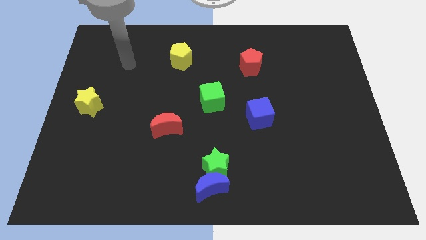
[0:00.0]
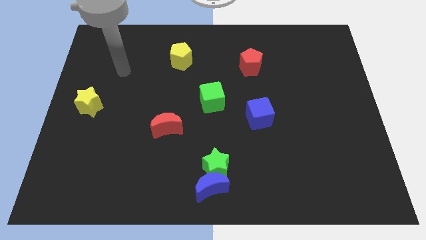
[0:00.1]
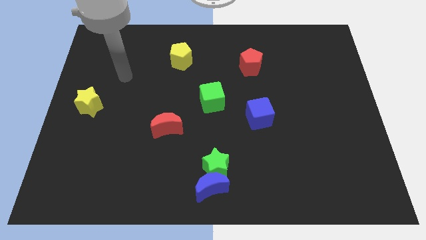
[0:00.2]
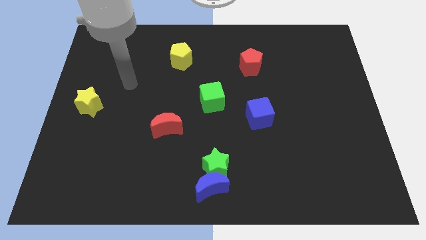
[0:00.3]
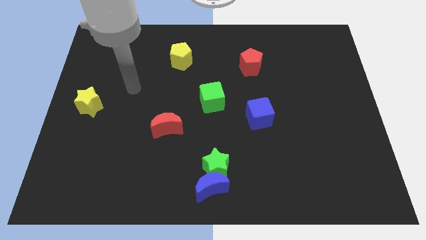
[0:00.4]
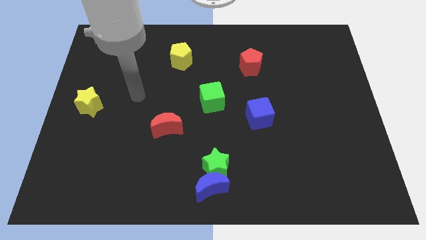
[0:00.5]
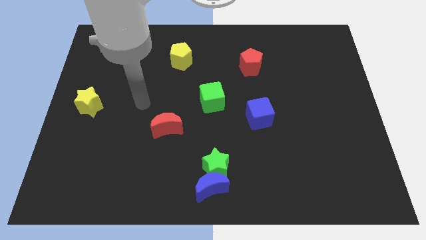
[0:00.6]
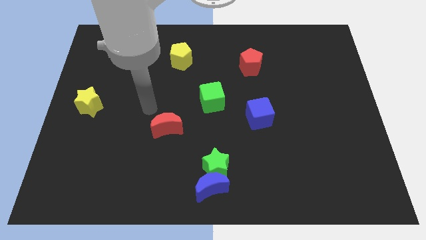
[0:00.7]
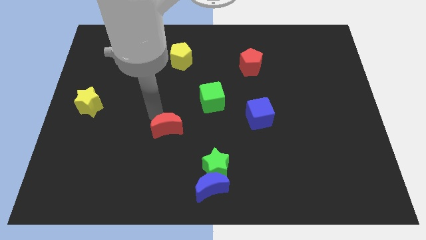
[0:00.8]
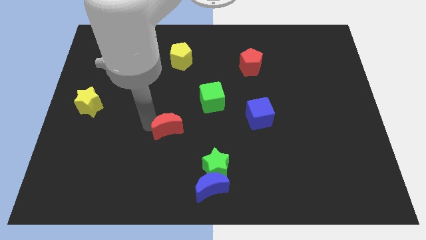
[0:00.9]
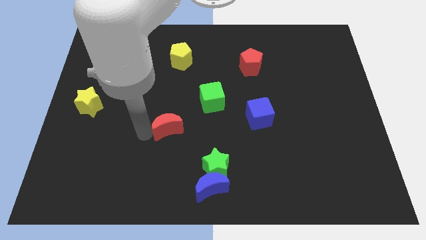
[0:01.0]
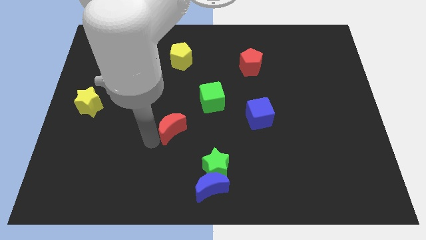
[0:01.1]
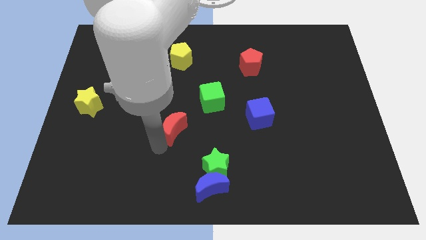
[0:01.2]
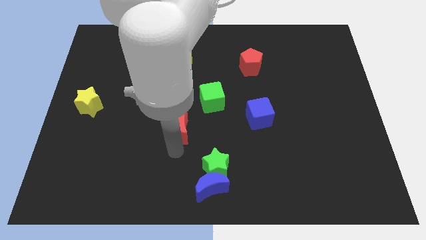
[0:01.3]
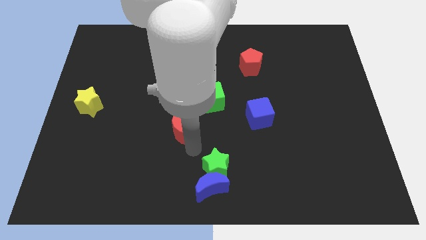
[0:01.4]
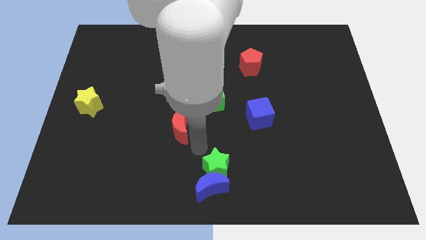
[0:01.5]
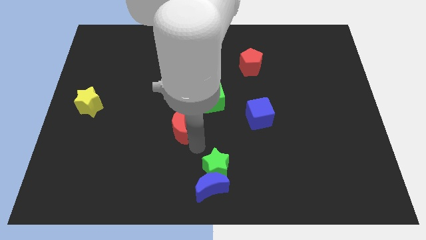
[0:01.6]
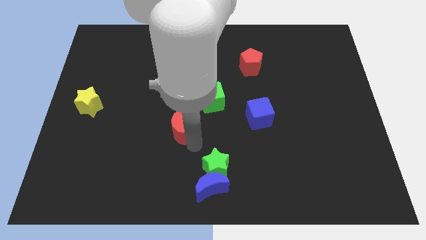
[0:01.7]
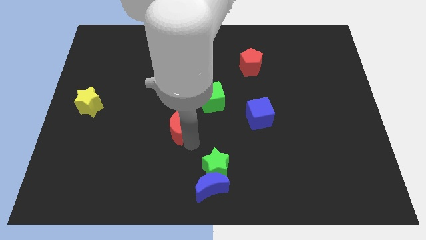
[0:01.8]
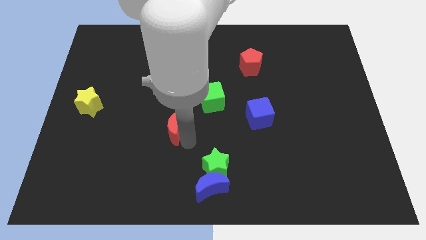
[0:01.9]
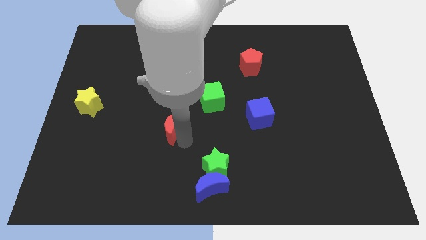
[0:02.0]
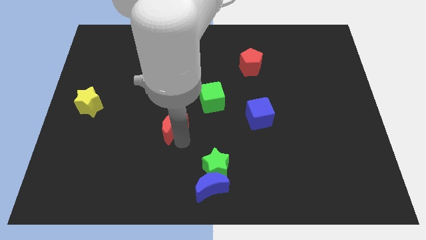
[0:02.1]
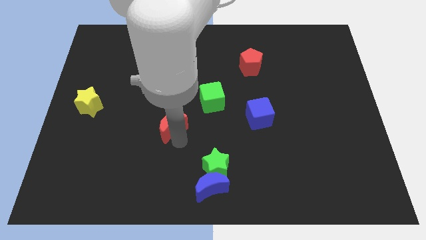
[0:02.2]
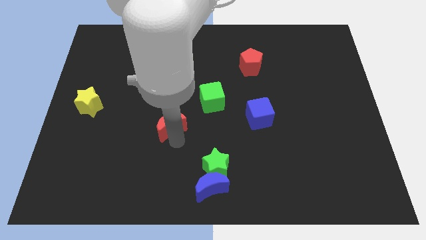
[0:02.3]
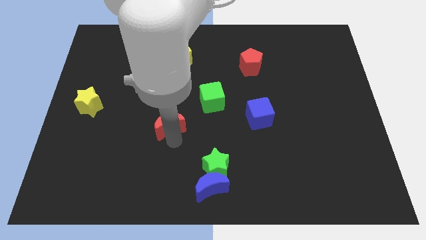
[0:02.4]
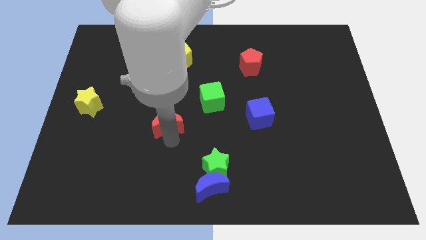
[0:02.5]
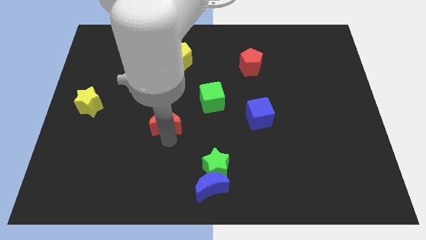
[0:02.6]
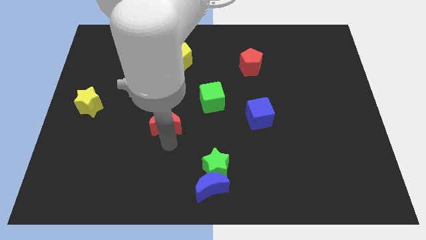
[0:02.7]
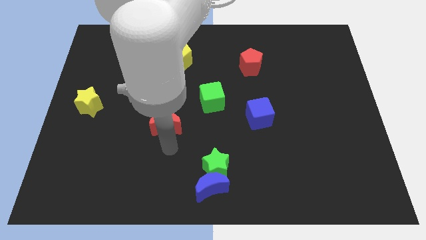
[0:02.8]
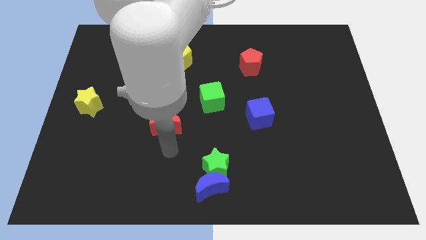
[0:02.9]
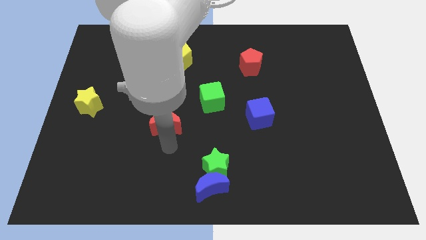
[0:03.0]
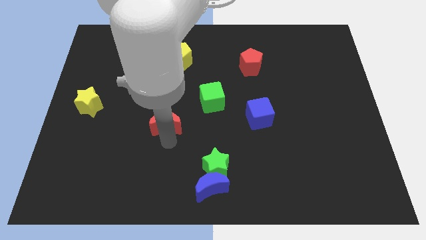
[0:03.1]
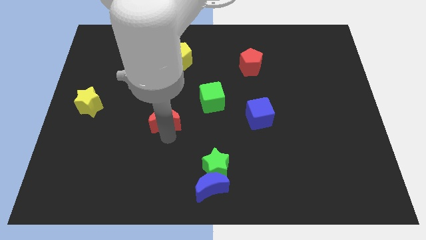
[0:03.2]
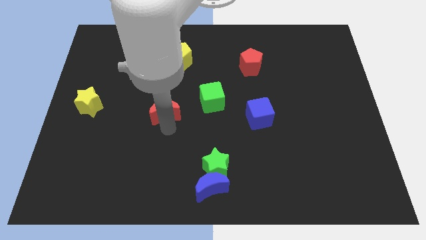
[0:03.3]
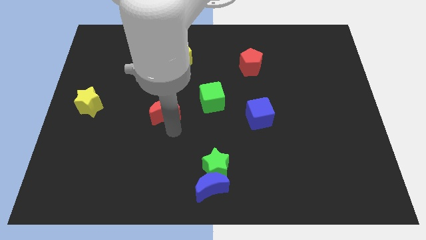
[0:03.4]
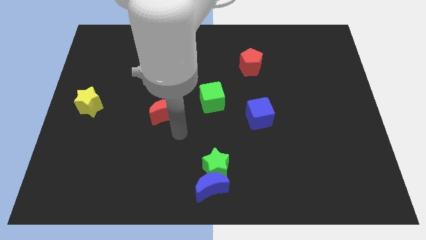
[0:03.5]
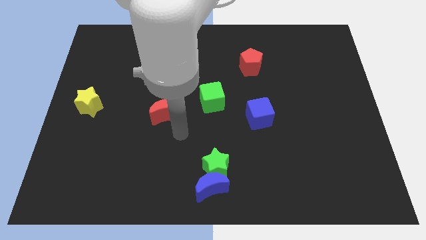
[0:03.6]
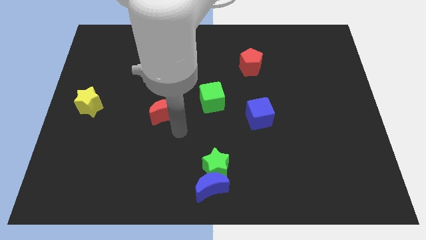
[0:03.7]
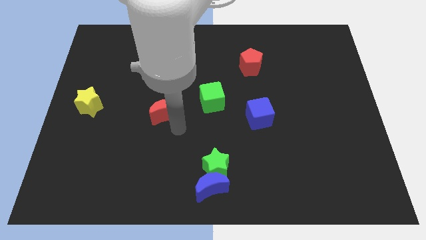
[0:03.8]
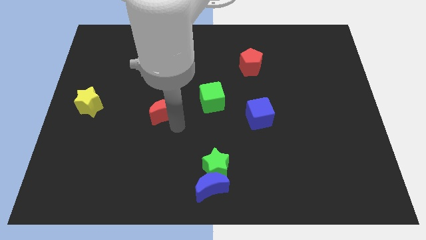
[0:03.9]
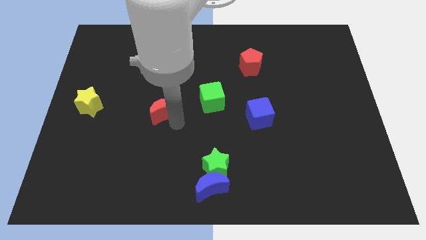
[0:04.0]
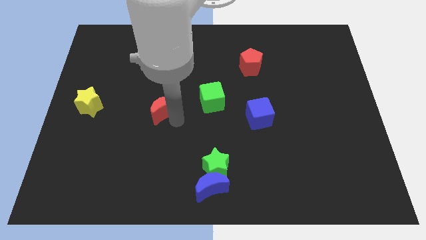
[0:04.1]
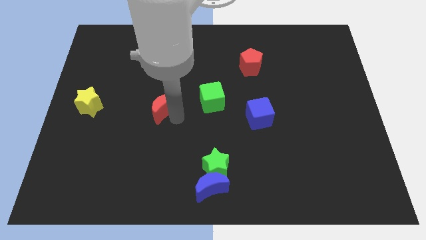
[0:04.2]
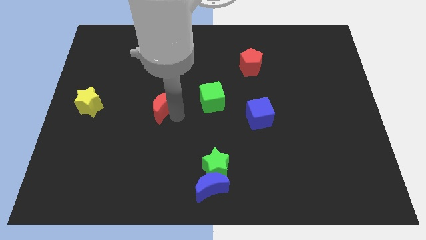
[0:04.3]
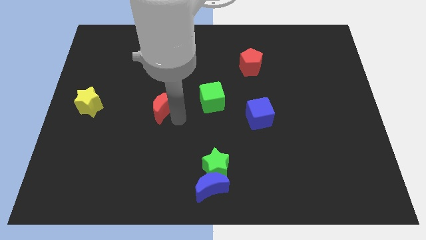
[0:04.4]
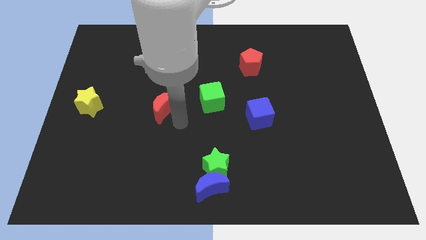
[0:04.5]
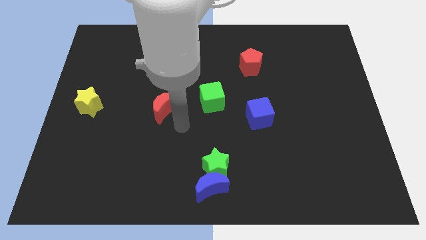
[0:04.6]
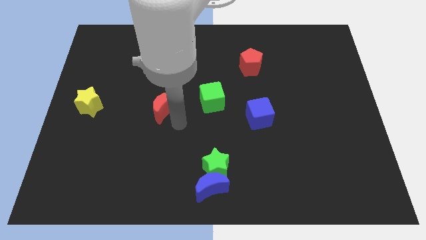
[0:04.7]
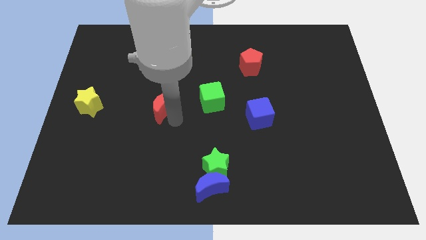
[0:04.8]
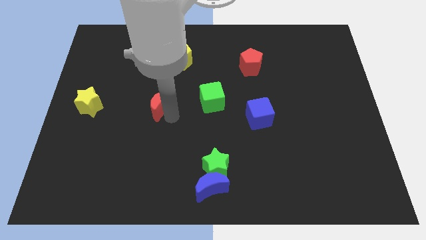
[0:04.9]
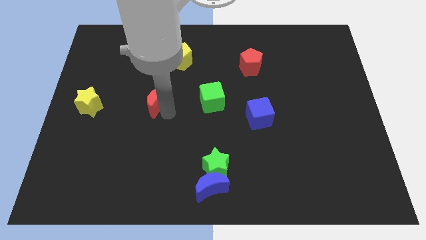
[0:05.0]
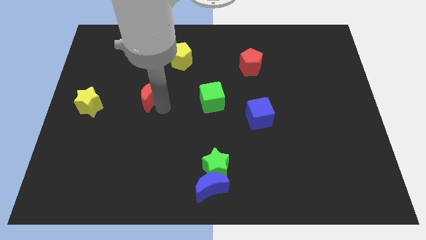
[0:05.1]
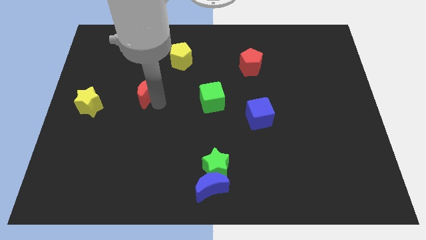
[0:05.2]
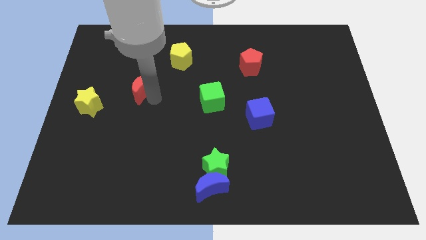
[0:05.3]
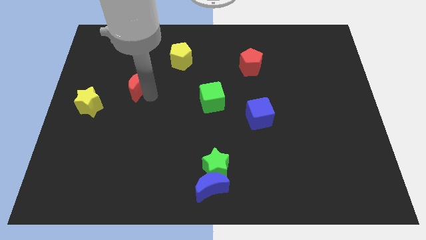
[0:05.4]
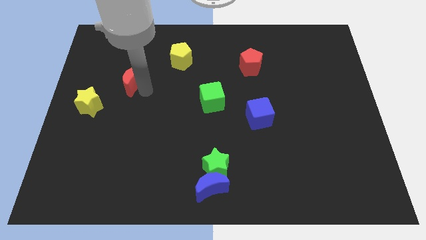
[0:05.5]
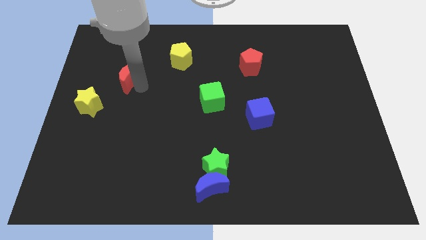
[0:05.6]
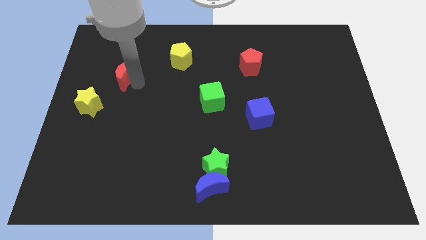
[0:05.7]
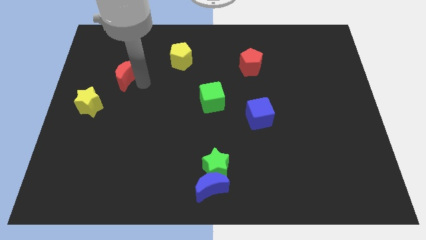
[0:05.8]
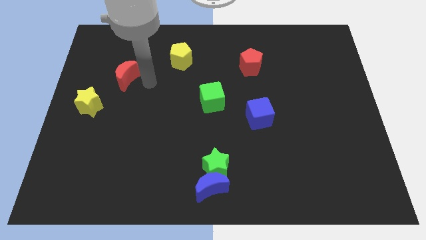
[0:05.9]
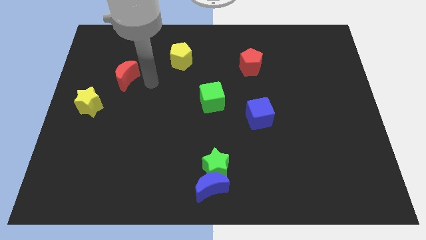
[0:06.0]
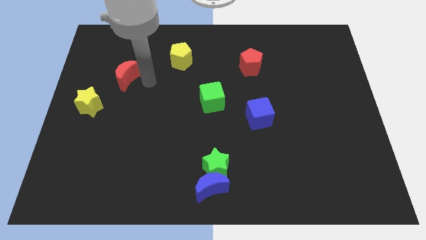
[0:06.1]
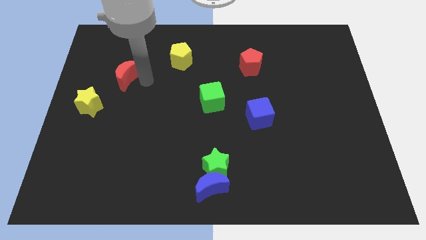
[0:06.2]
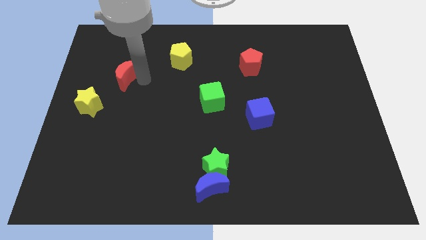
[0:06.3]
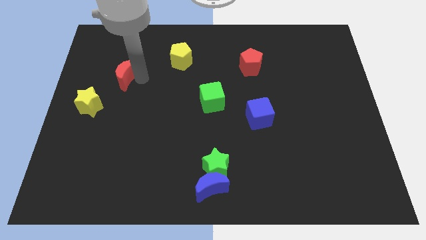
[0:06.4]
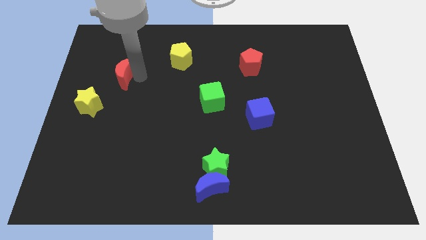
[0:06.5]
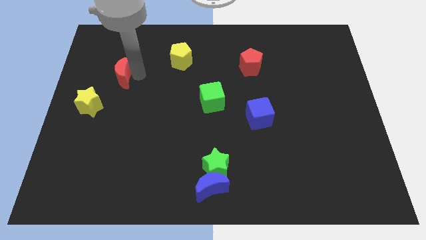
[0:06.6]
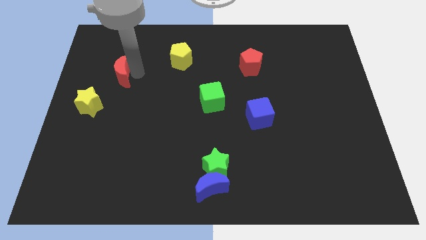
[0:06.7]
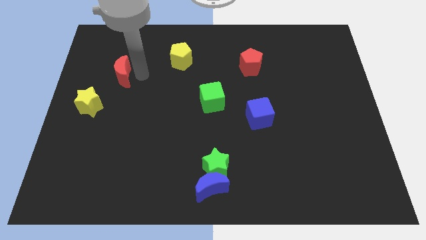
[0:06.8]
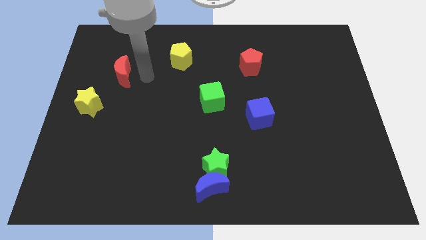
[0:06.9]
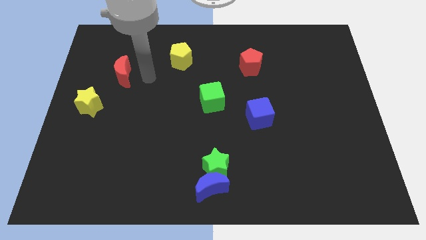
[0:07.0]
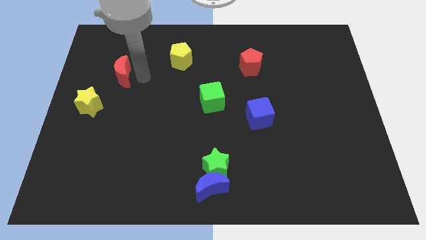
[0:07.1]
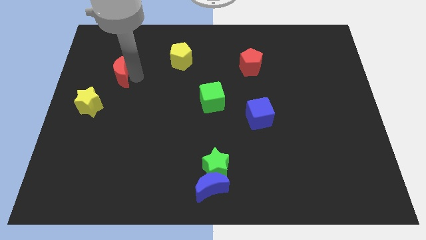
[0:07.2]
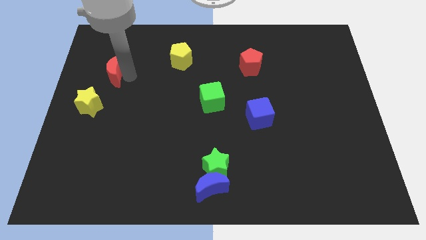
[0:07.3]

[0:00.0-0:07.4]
push the red moon to the top of the yellow star
